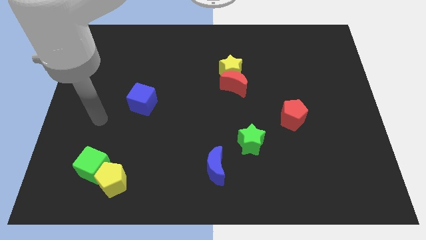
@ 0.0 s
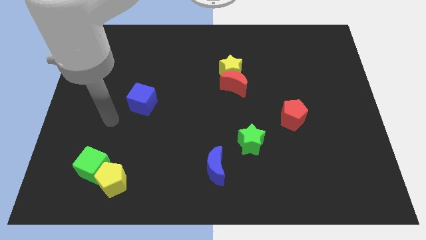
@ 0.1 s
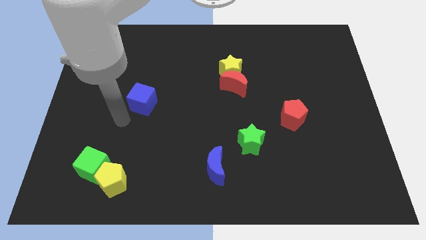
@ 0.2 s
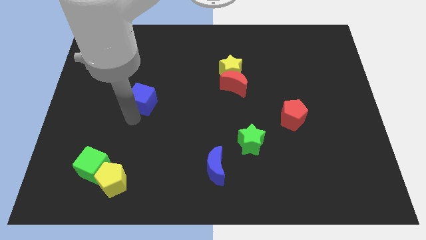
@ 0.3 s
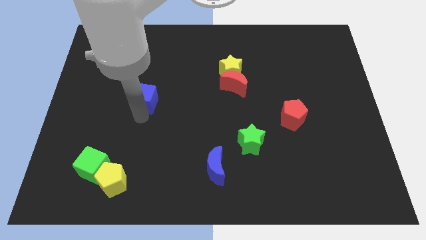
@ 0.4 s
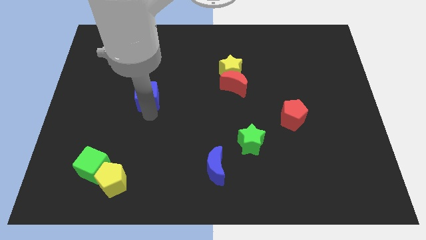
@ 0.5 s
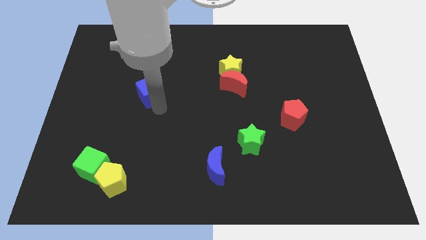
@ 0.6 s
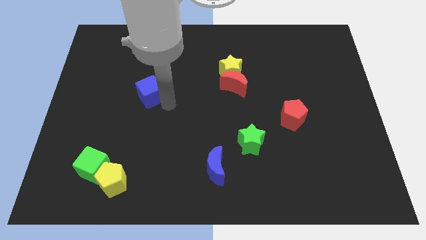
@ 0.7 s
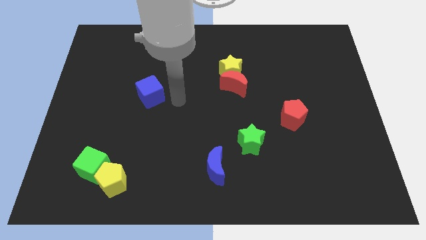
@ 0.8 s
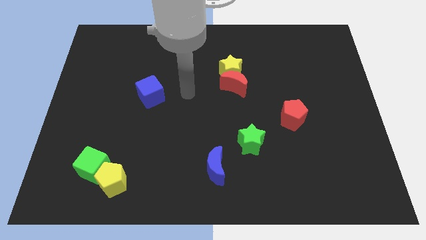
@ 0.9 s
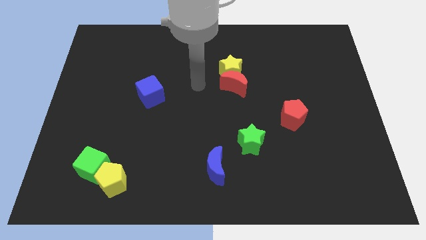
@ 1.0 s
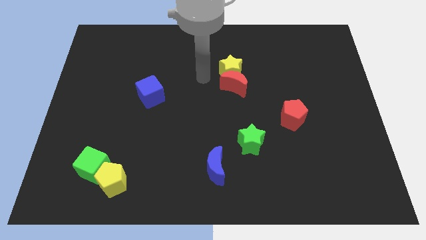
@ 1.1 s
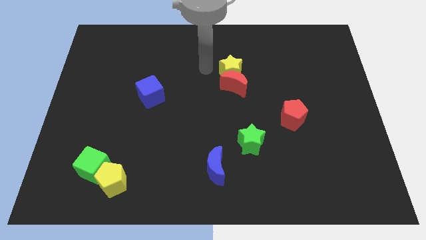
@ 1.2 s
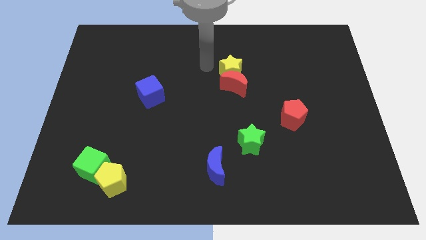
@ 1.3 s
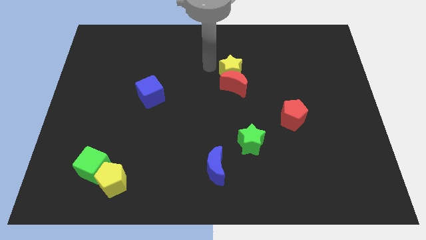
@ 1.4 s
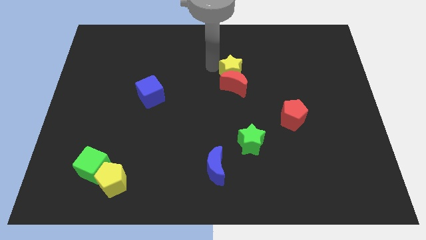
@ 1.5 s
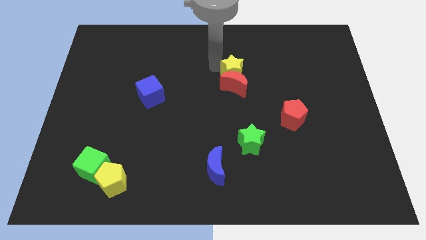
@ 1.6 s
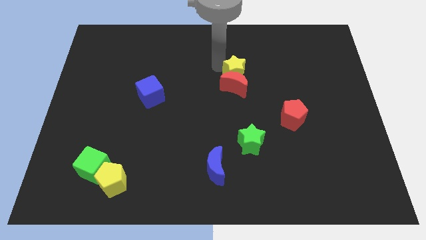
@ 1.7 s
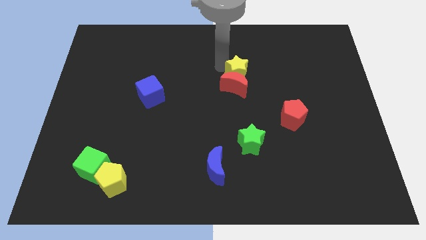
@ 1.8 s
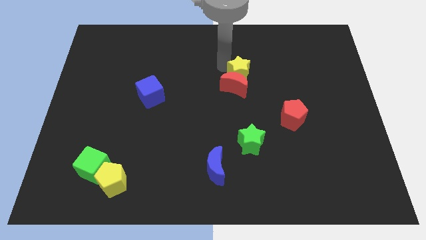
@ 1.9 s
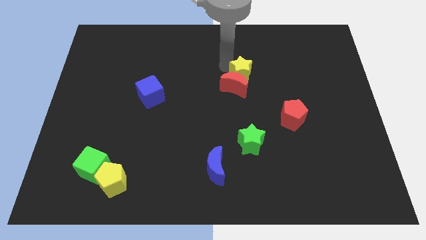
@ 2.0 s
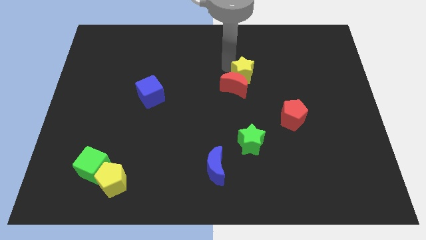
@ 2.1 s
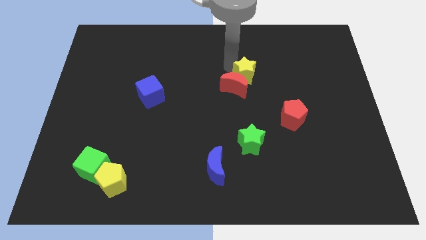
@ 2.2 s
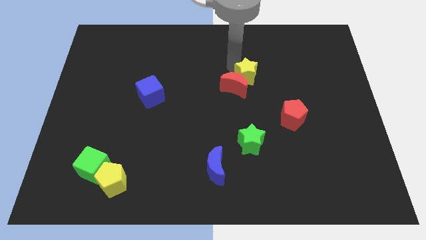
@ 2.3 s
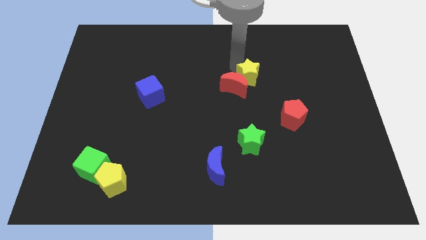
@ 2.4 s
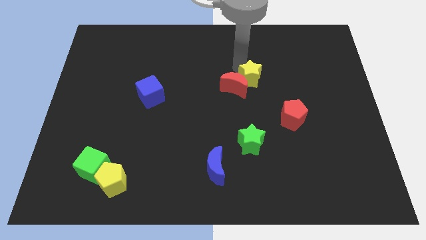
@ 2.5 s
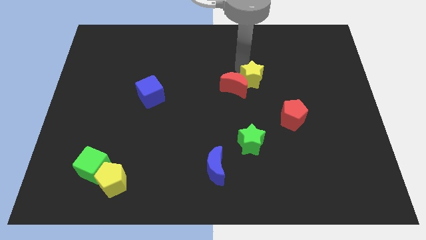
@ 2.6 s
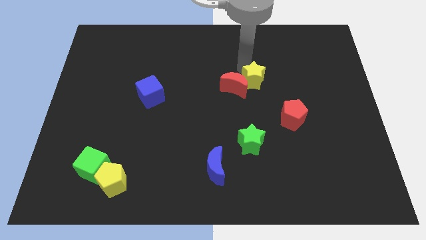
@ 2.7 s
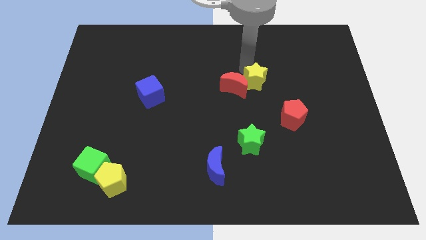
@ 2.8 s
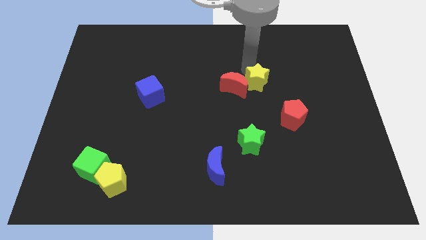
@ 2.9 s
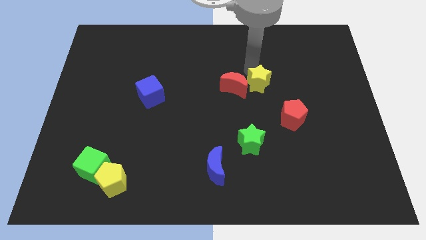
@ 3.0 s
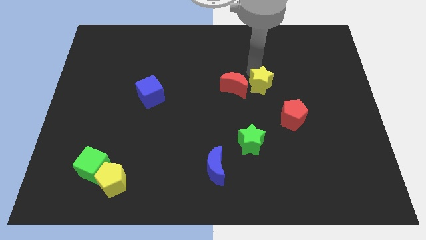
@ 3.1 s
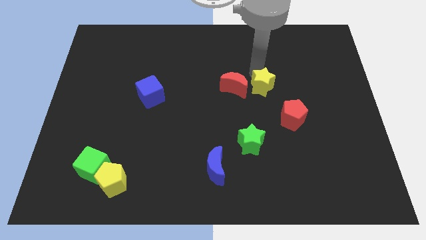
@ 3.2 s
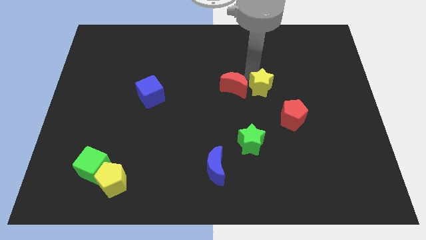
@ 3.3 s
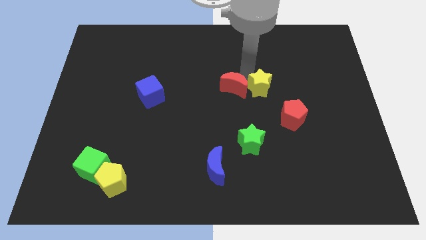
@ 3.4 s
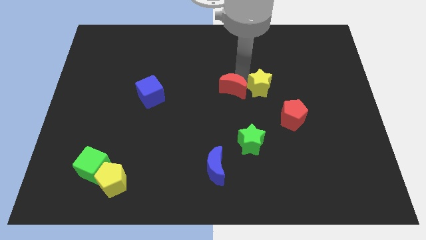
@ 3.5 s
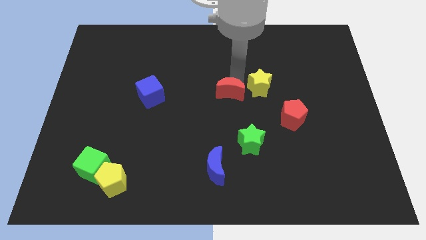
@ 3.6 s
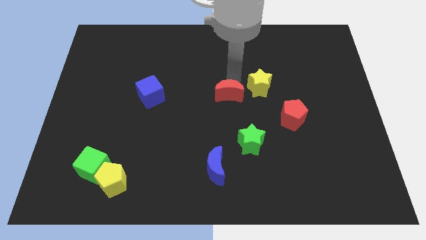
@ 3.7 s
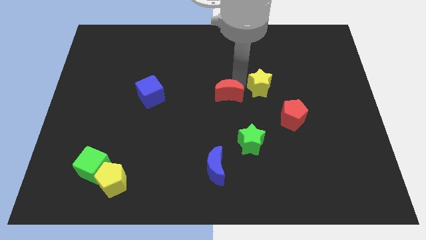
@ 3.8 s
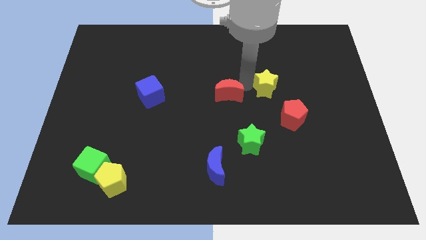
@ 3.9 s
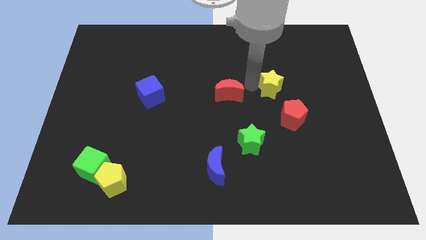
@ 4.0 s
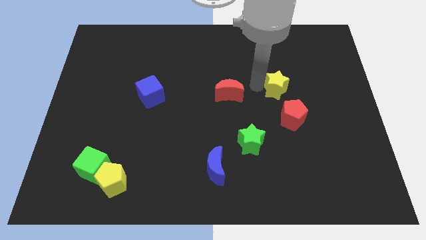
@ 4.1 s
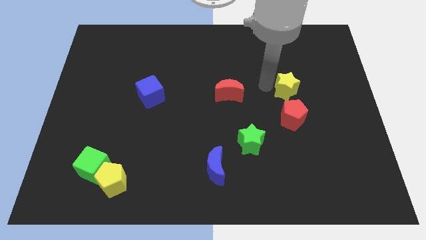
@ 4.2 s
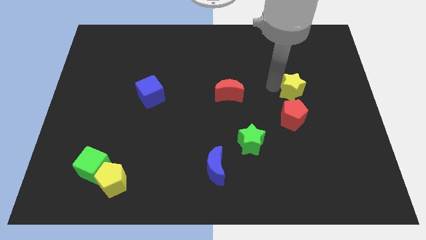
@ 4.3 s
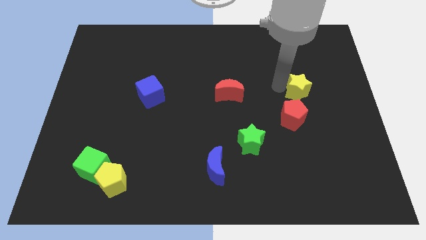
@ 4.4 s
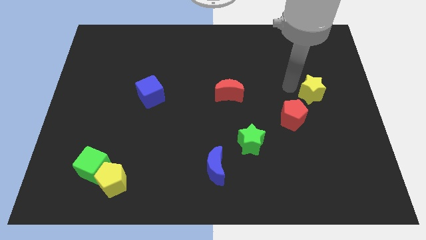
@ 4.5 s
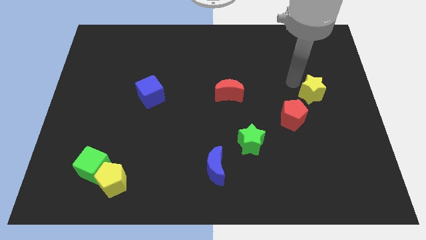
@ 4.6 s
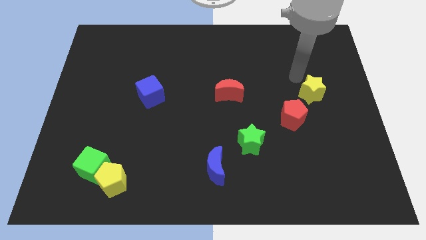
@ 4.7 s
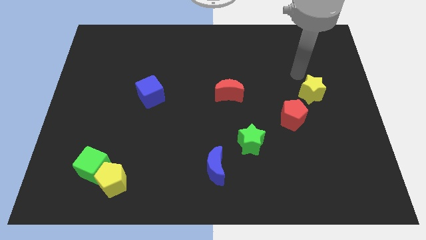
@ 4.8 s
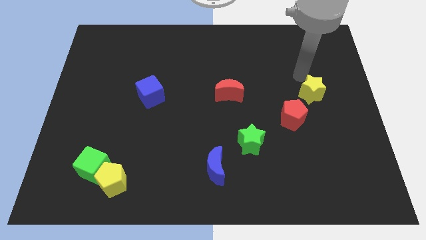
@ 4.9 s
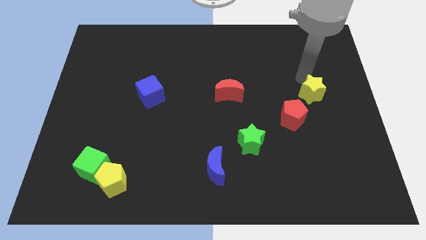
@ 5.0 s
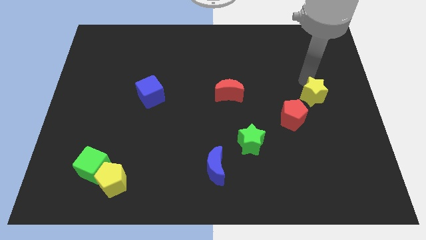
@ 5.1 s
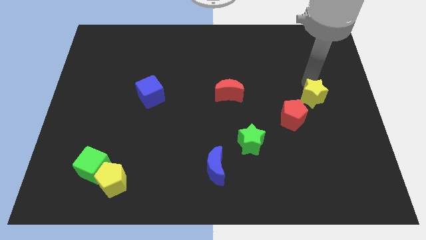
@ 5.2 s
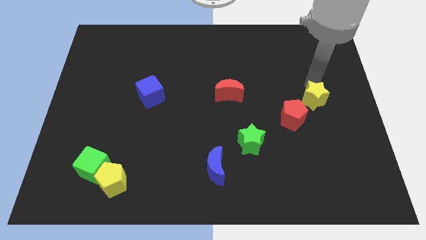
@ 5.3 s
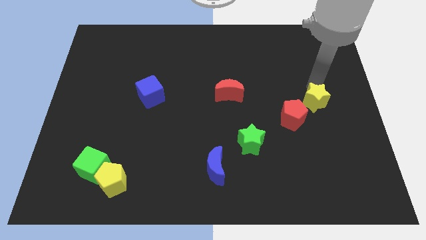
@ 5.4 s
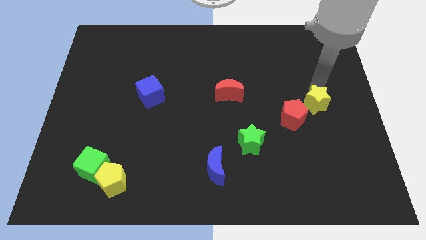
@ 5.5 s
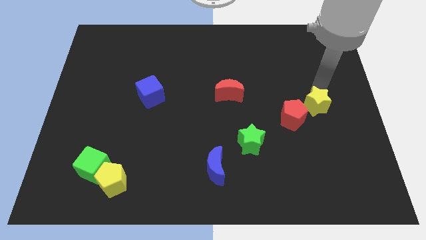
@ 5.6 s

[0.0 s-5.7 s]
move the yellow star diagonally downwards and to the right

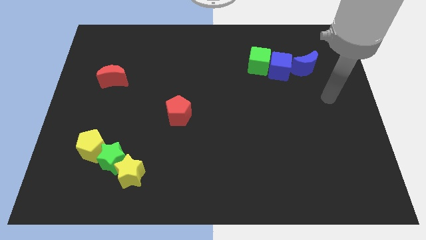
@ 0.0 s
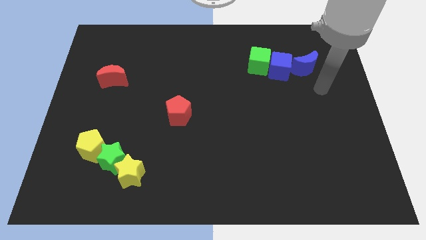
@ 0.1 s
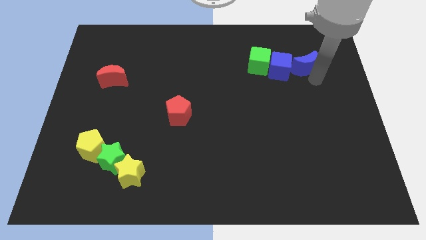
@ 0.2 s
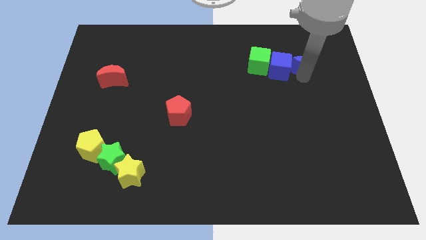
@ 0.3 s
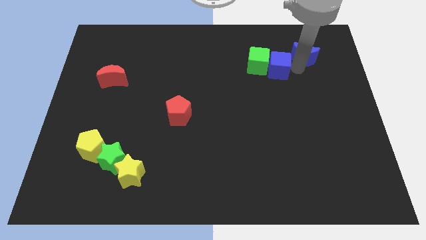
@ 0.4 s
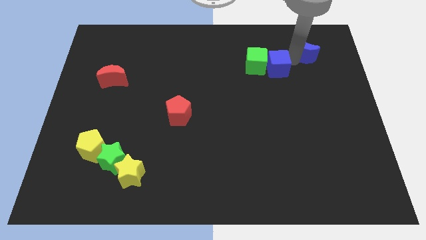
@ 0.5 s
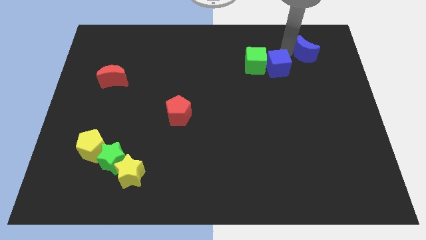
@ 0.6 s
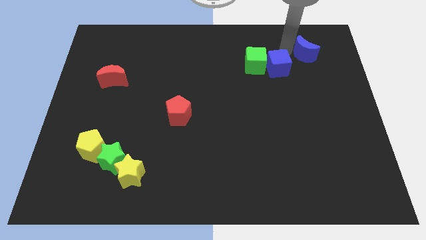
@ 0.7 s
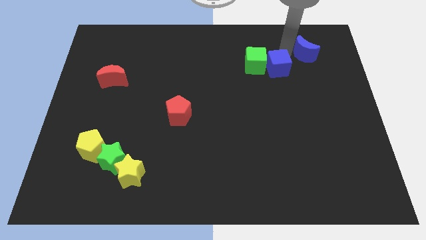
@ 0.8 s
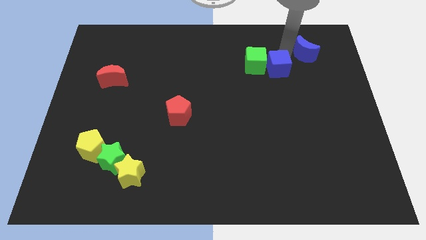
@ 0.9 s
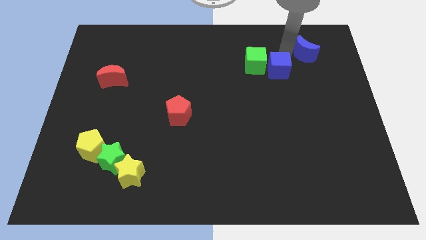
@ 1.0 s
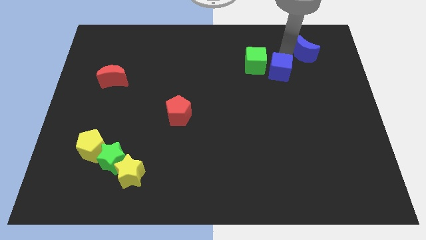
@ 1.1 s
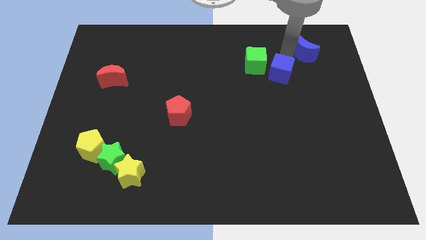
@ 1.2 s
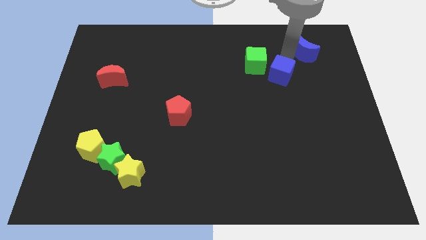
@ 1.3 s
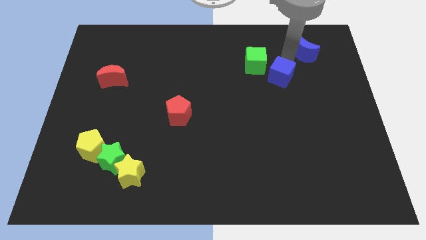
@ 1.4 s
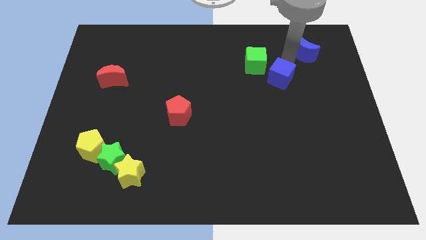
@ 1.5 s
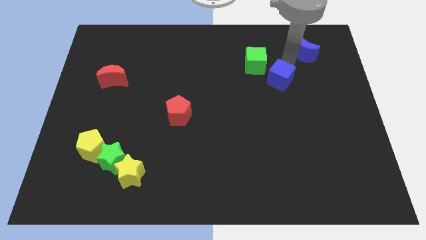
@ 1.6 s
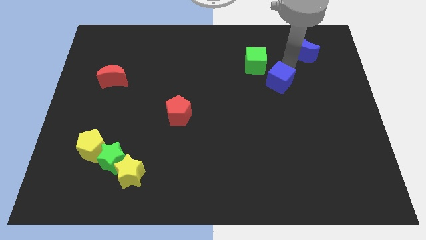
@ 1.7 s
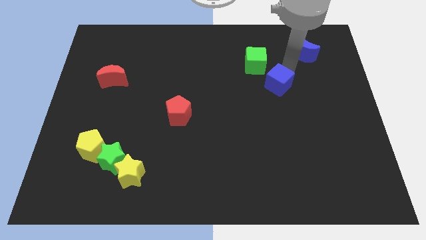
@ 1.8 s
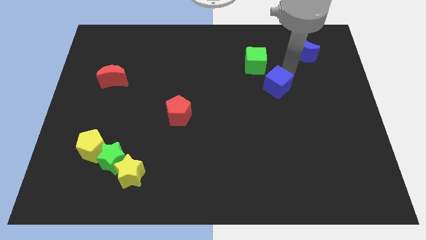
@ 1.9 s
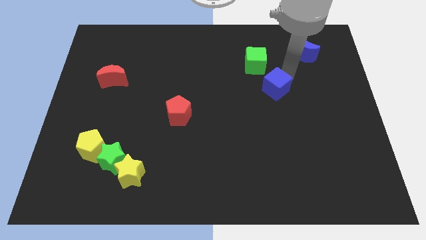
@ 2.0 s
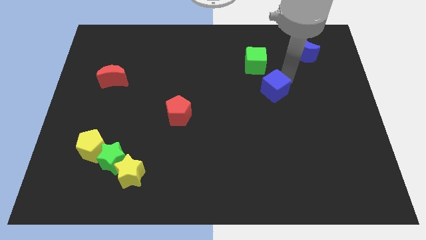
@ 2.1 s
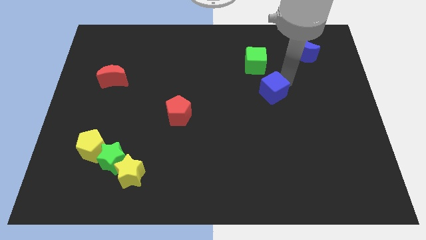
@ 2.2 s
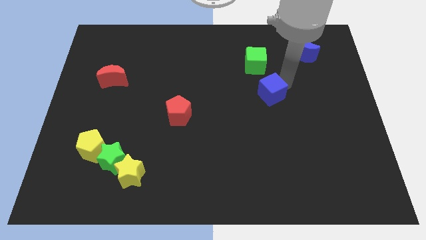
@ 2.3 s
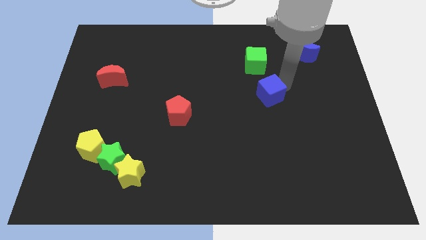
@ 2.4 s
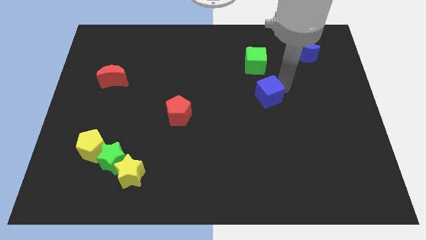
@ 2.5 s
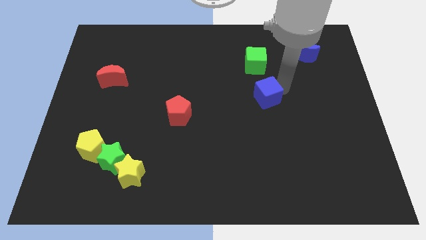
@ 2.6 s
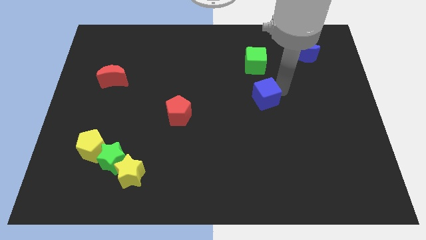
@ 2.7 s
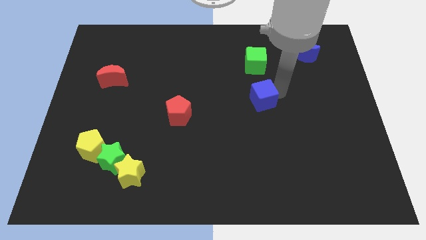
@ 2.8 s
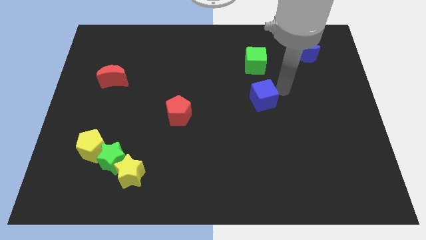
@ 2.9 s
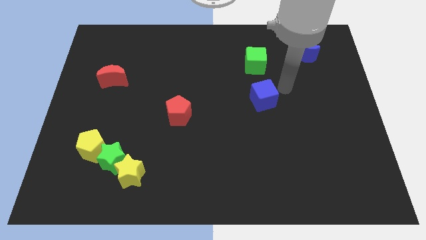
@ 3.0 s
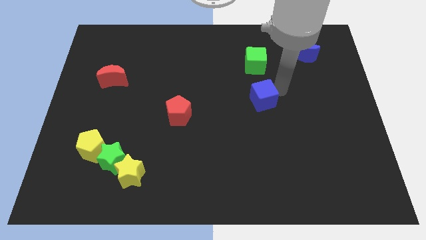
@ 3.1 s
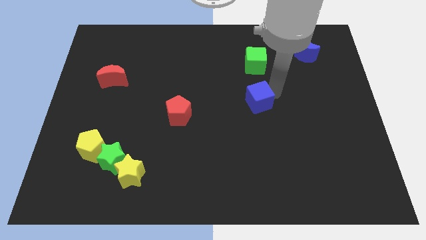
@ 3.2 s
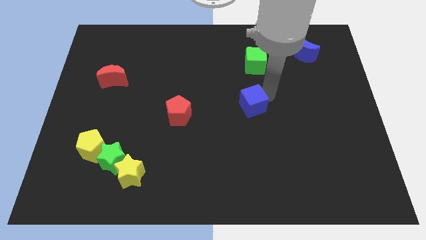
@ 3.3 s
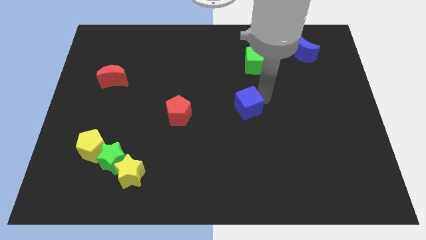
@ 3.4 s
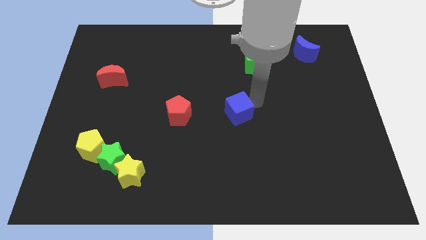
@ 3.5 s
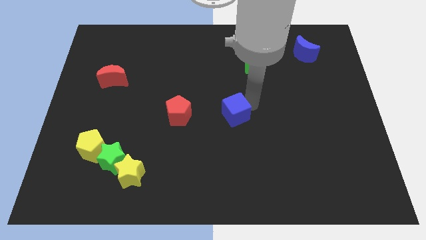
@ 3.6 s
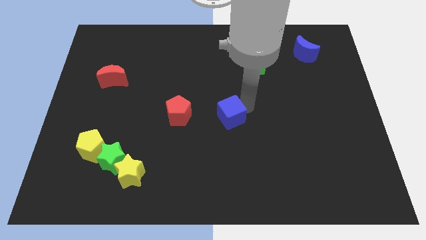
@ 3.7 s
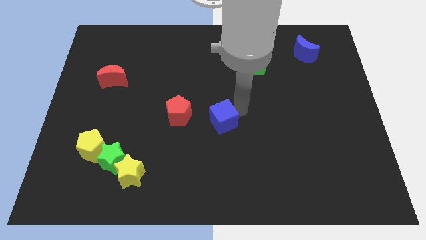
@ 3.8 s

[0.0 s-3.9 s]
push the blue cube down and left diagonally
